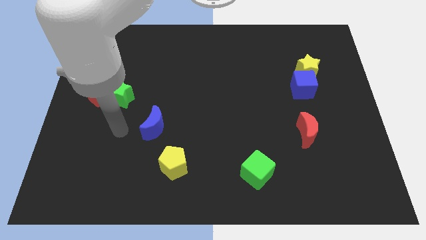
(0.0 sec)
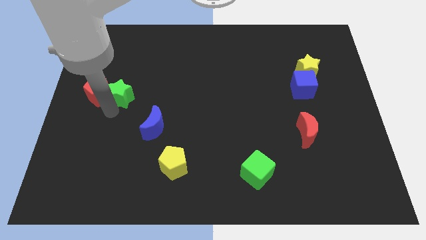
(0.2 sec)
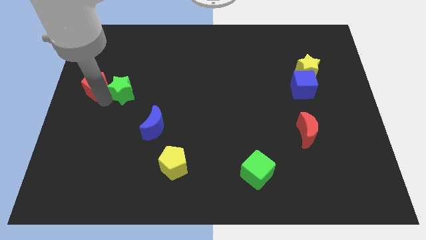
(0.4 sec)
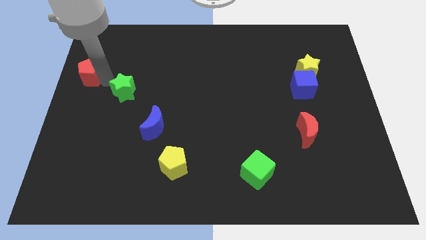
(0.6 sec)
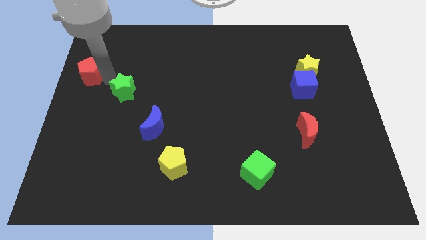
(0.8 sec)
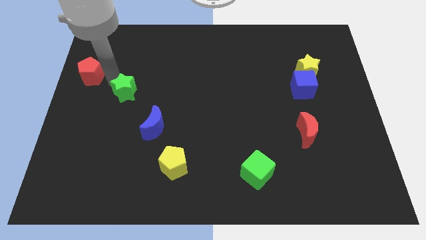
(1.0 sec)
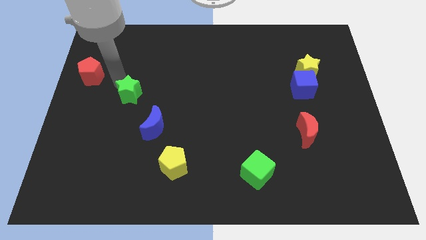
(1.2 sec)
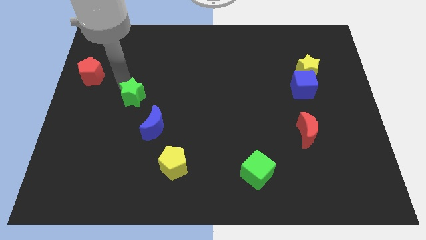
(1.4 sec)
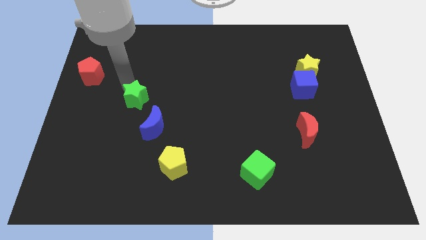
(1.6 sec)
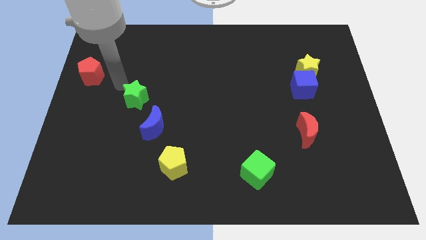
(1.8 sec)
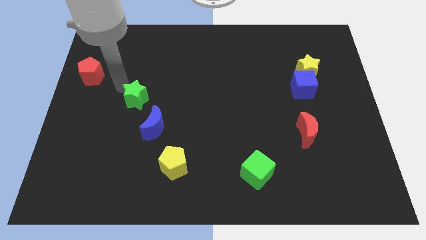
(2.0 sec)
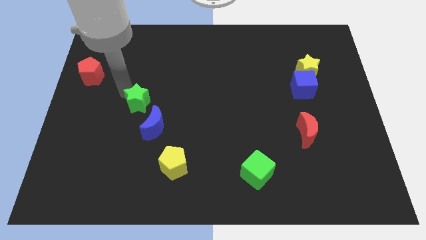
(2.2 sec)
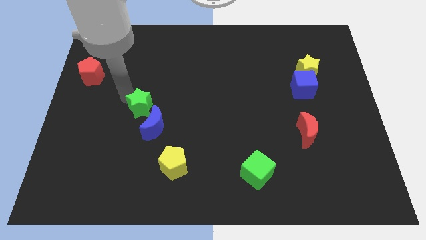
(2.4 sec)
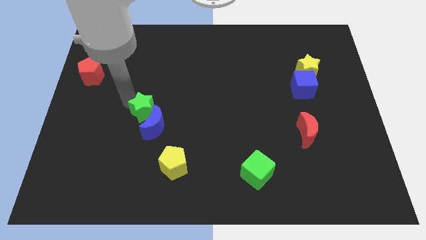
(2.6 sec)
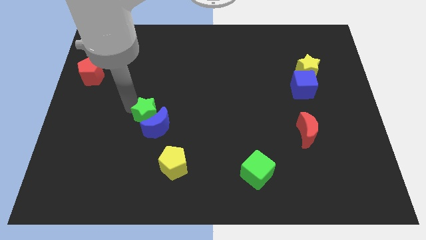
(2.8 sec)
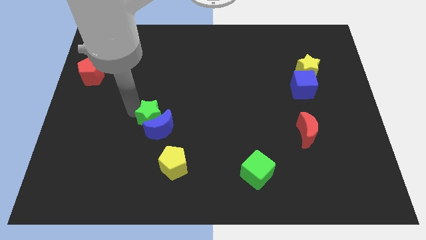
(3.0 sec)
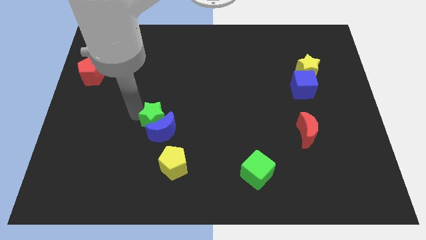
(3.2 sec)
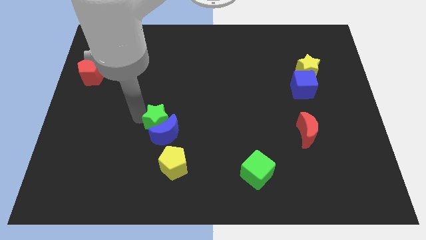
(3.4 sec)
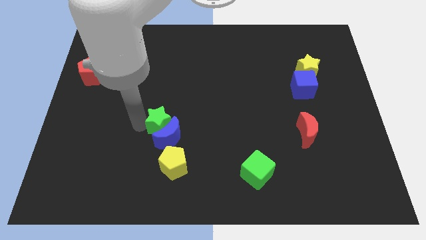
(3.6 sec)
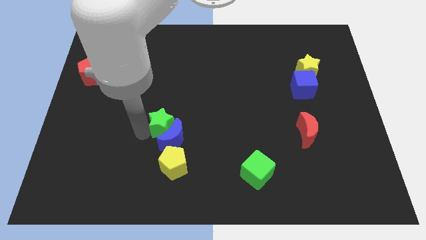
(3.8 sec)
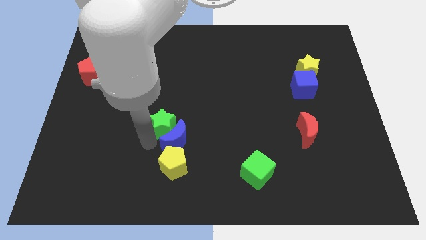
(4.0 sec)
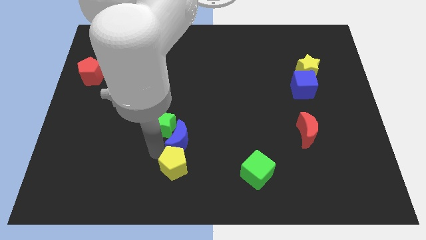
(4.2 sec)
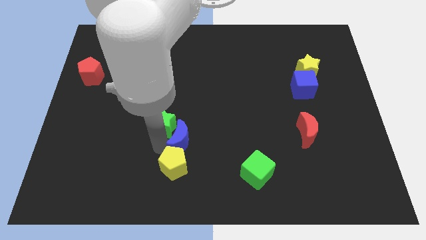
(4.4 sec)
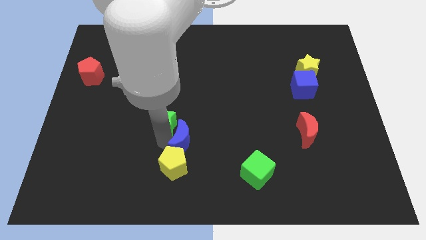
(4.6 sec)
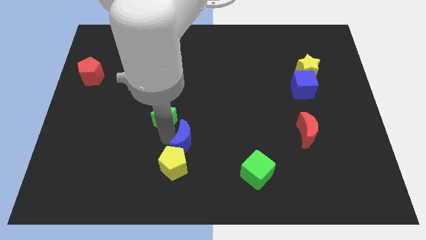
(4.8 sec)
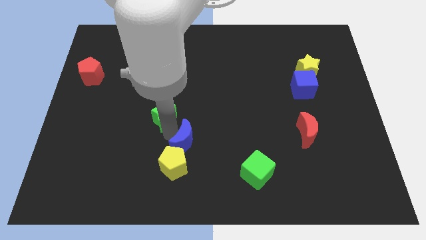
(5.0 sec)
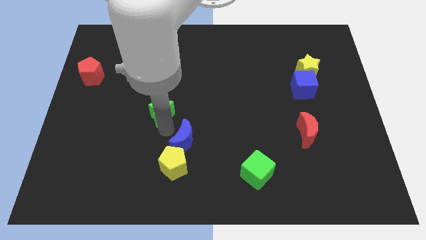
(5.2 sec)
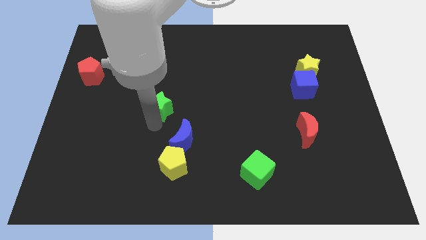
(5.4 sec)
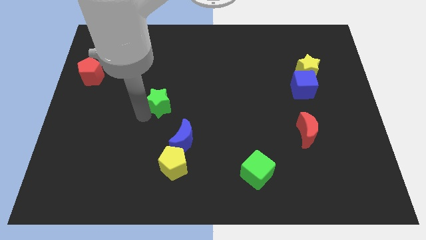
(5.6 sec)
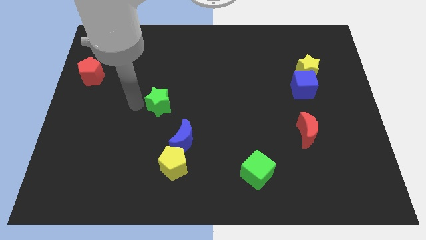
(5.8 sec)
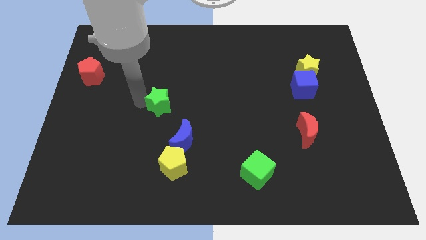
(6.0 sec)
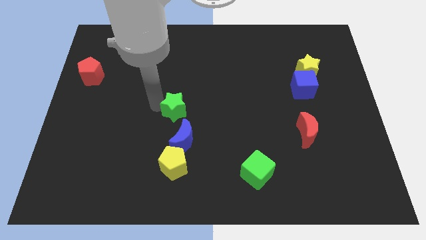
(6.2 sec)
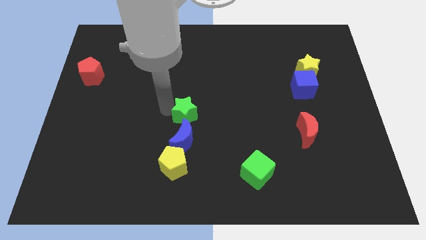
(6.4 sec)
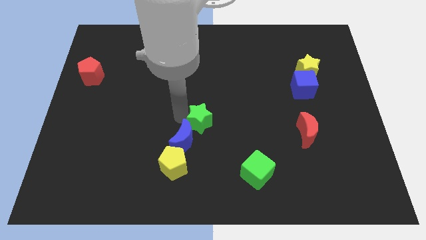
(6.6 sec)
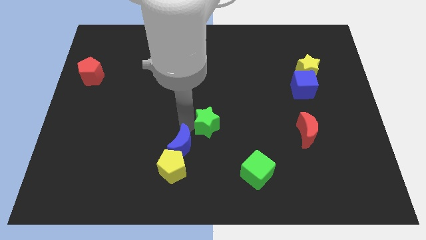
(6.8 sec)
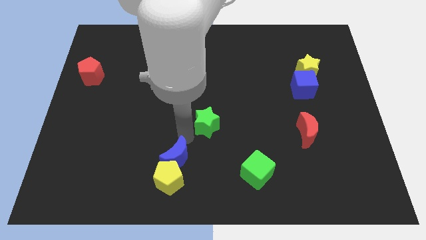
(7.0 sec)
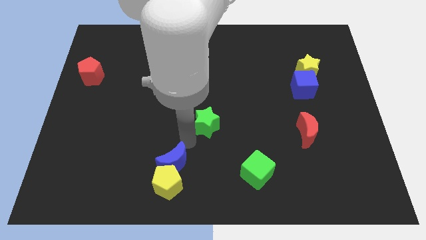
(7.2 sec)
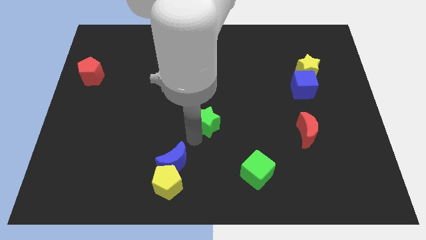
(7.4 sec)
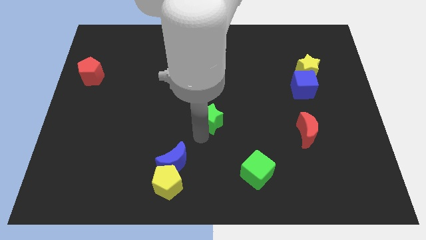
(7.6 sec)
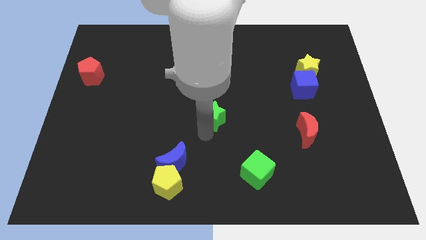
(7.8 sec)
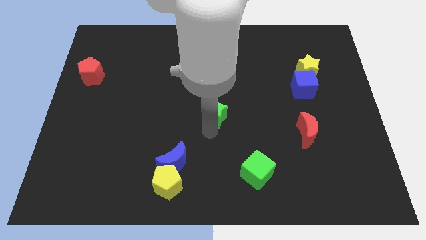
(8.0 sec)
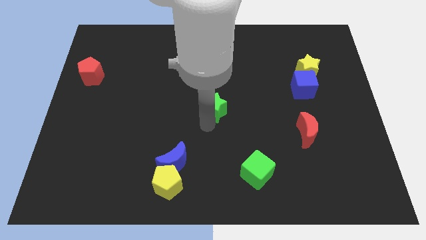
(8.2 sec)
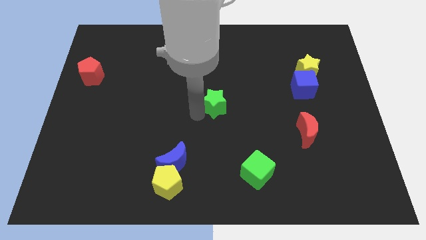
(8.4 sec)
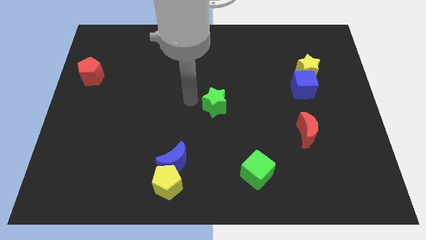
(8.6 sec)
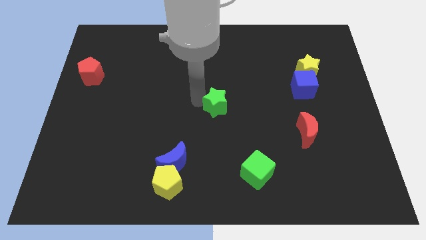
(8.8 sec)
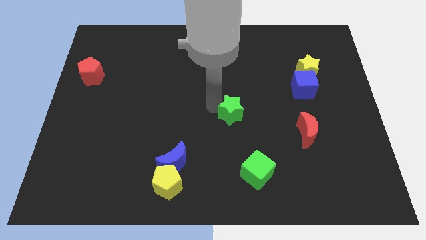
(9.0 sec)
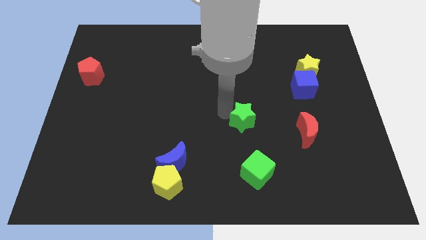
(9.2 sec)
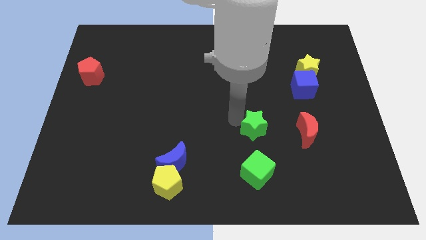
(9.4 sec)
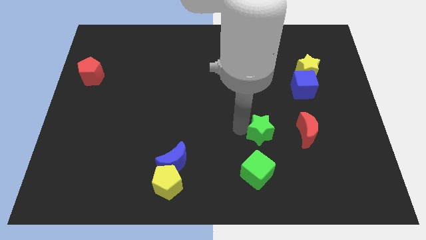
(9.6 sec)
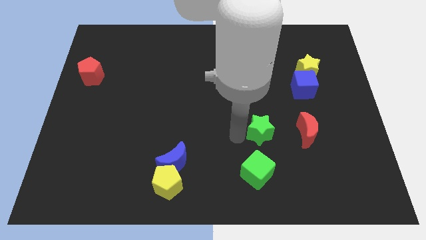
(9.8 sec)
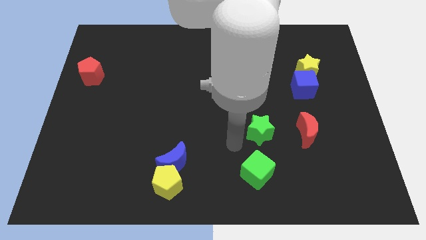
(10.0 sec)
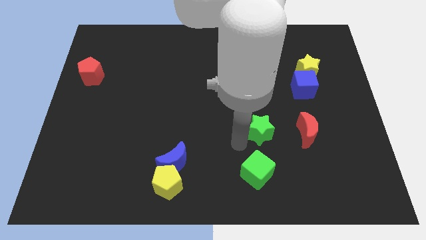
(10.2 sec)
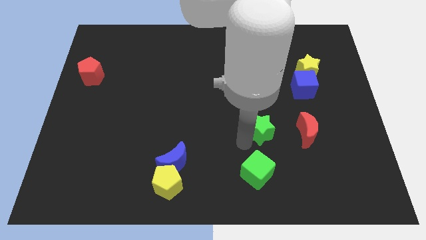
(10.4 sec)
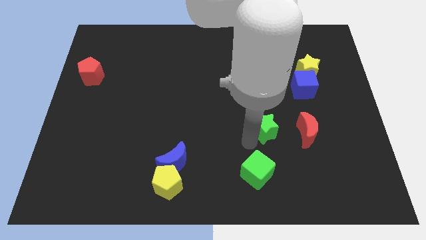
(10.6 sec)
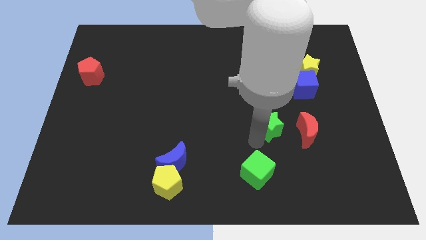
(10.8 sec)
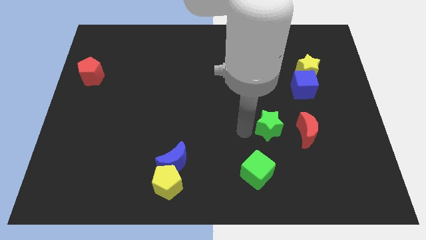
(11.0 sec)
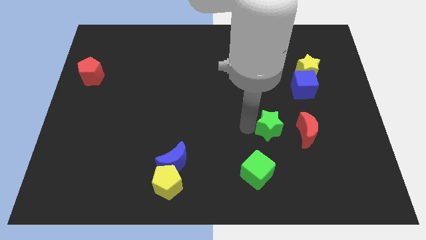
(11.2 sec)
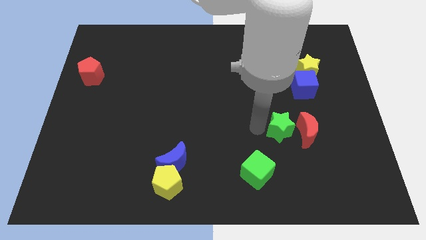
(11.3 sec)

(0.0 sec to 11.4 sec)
move the green star towards the red moon

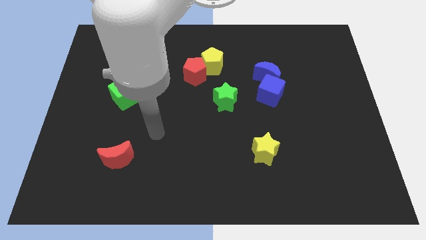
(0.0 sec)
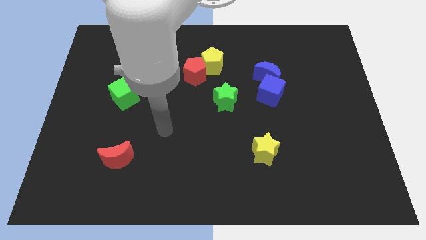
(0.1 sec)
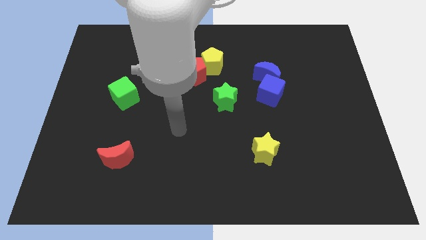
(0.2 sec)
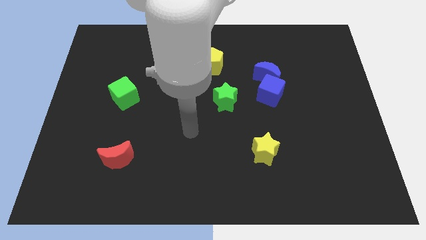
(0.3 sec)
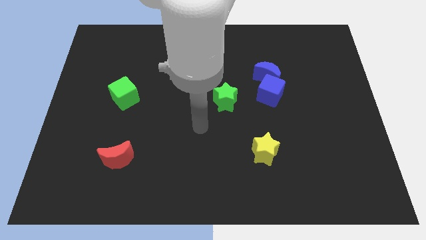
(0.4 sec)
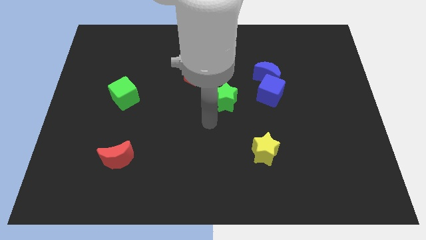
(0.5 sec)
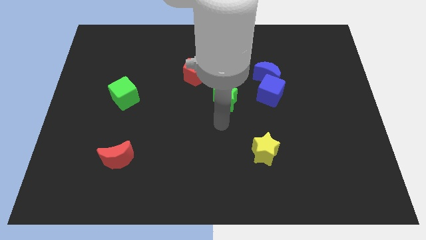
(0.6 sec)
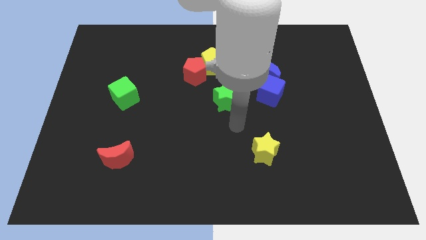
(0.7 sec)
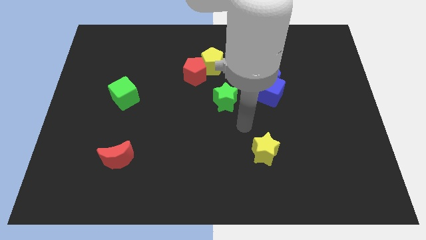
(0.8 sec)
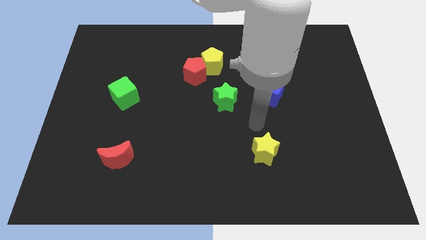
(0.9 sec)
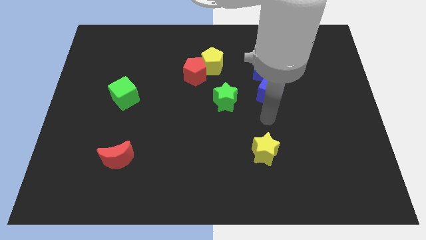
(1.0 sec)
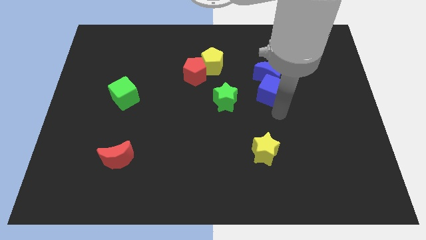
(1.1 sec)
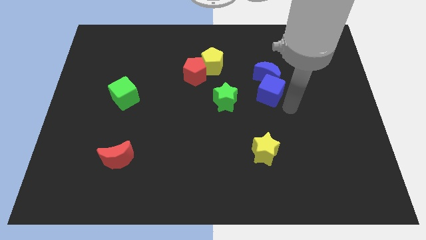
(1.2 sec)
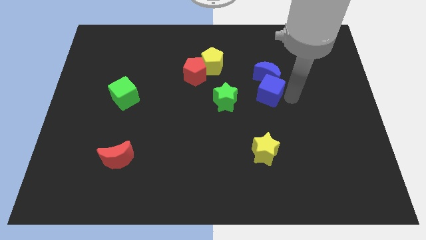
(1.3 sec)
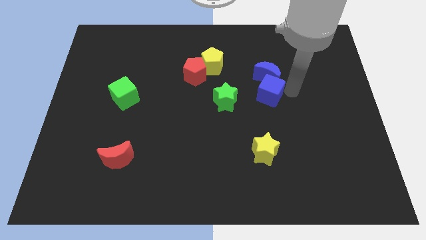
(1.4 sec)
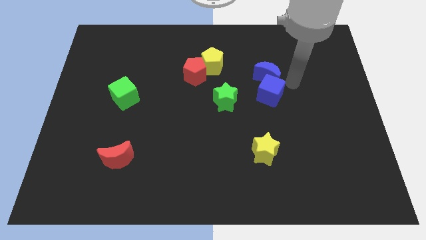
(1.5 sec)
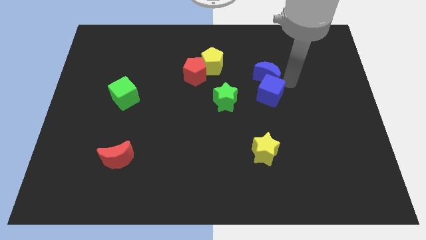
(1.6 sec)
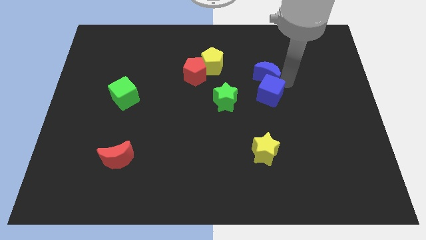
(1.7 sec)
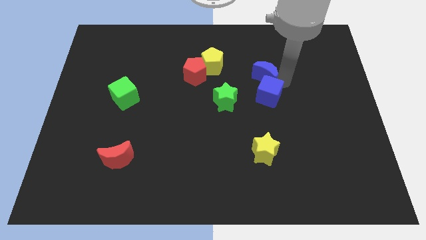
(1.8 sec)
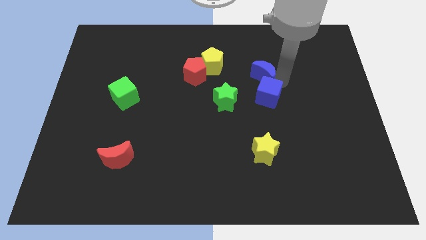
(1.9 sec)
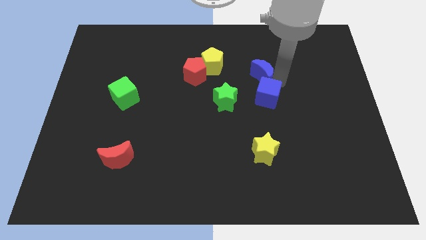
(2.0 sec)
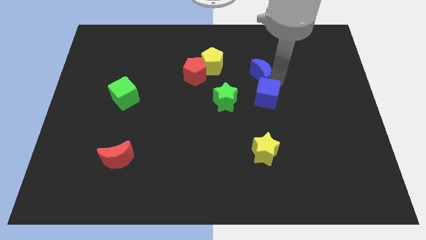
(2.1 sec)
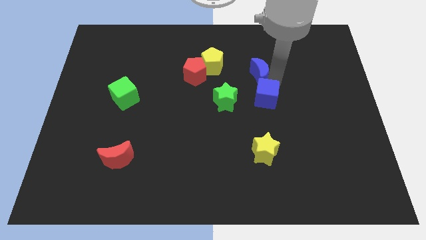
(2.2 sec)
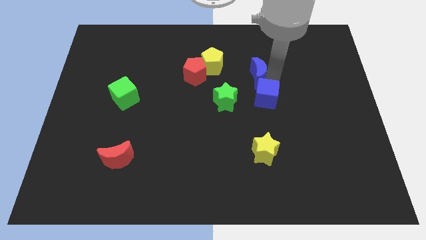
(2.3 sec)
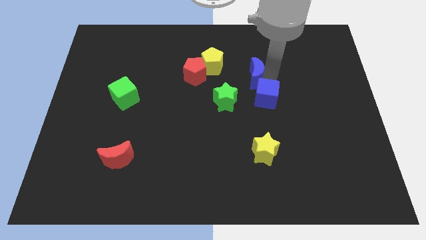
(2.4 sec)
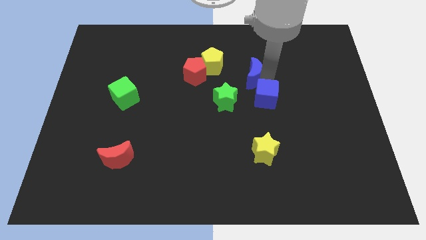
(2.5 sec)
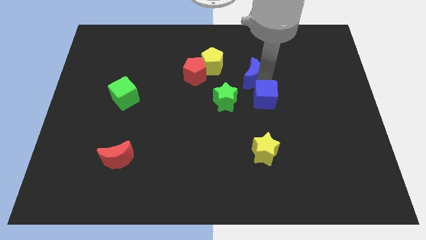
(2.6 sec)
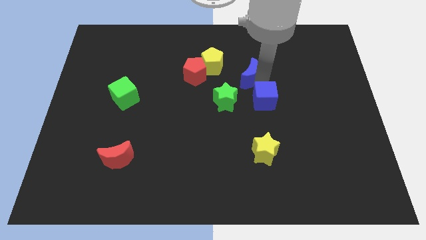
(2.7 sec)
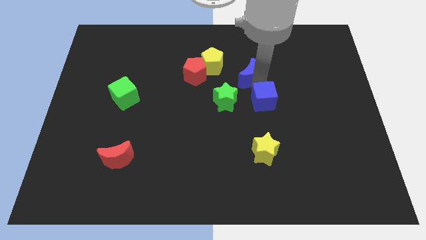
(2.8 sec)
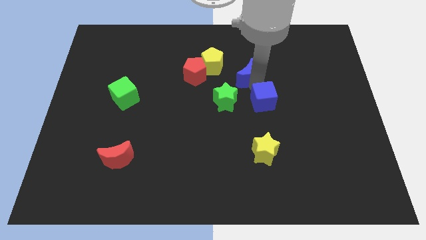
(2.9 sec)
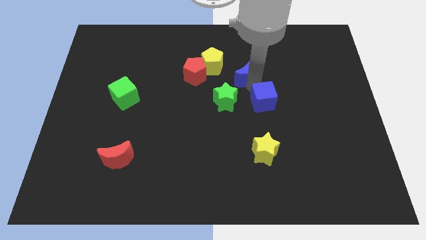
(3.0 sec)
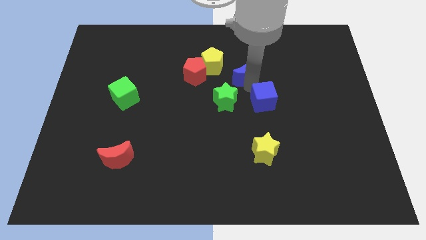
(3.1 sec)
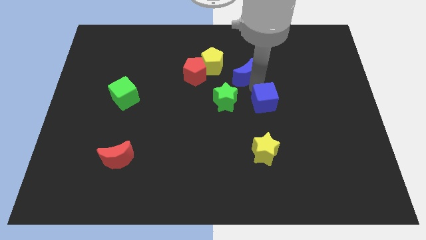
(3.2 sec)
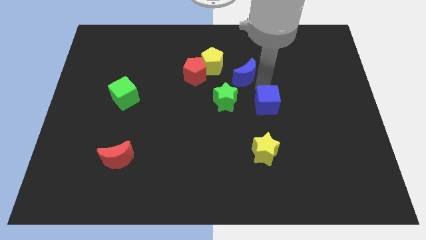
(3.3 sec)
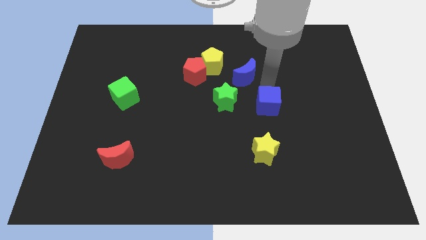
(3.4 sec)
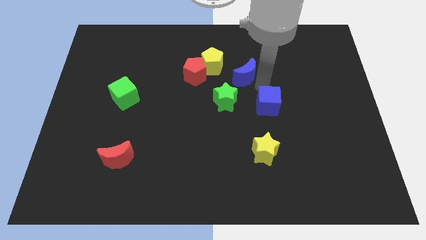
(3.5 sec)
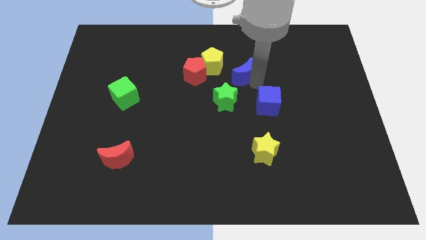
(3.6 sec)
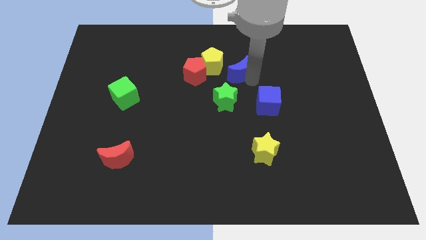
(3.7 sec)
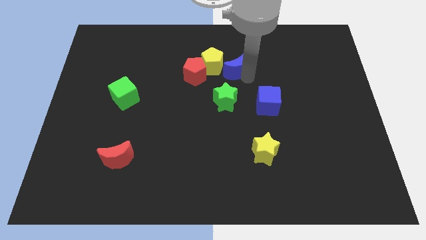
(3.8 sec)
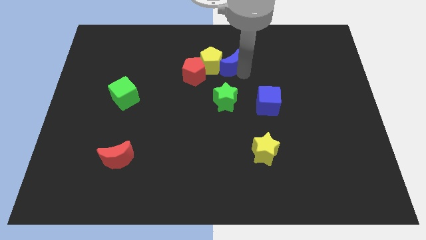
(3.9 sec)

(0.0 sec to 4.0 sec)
move the blue moon next to the yellow pentagon
